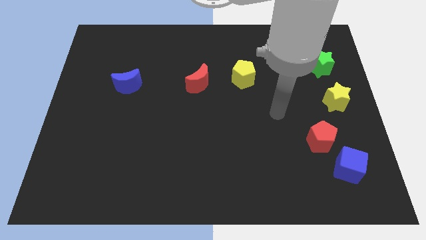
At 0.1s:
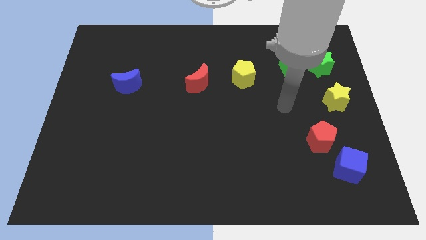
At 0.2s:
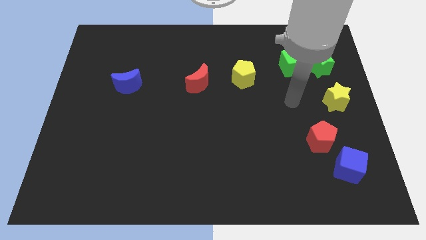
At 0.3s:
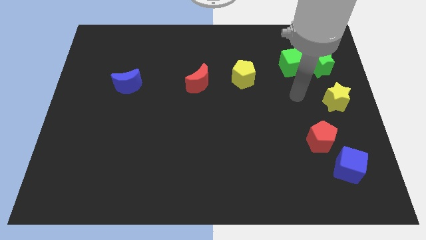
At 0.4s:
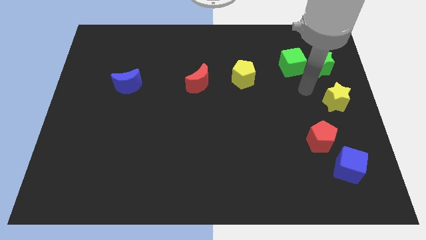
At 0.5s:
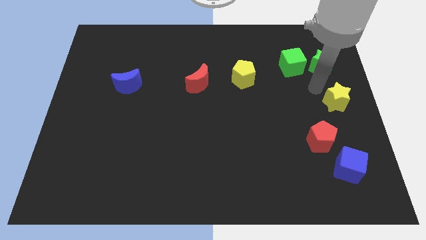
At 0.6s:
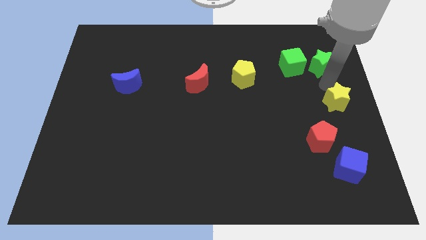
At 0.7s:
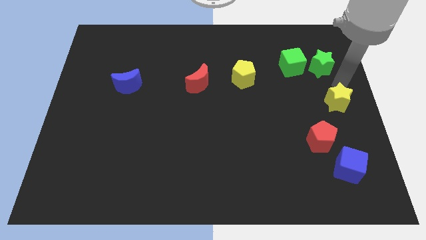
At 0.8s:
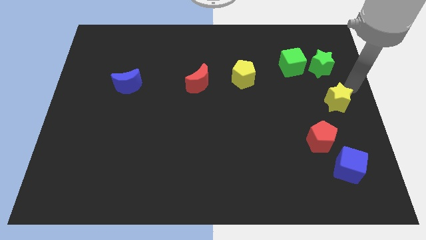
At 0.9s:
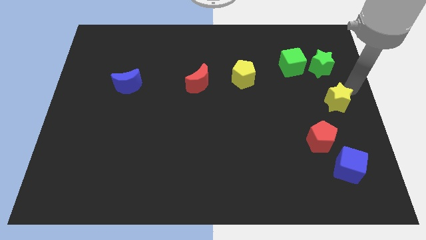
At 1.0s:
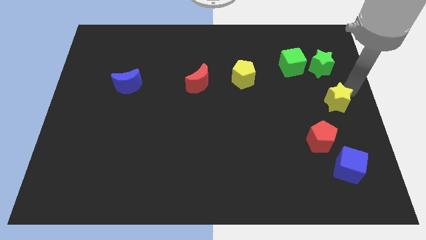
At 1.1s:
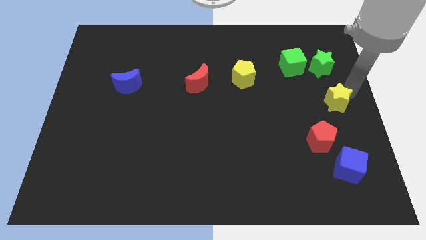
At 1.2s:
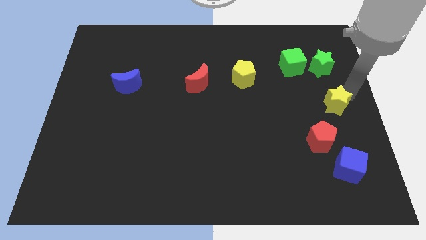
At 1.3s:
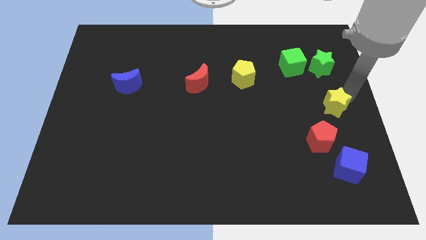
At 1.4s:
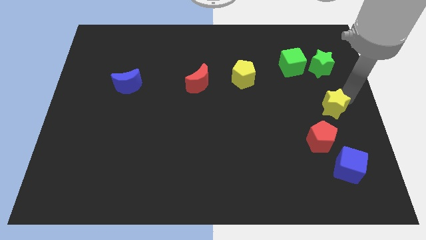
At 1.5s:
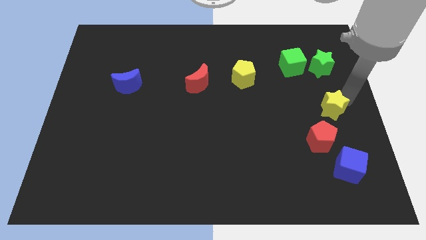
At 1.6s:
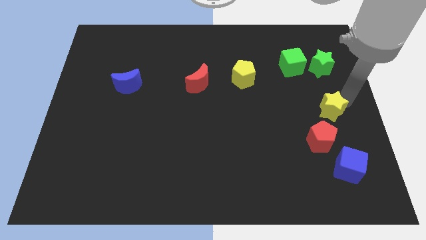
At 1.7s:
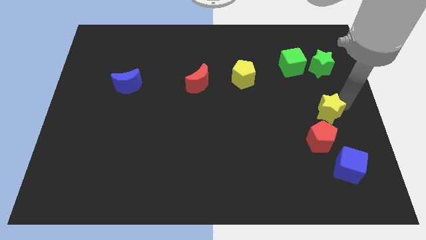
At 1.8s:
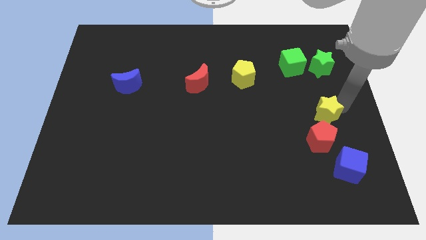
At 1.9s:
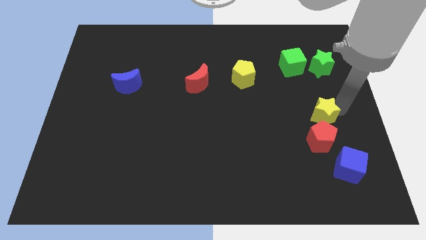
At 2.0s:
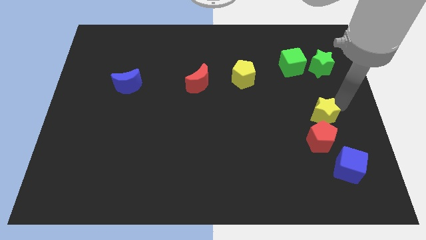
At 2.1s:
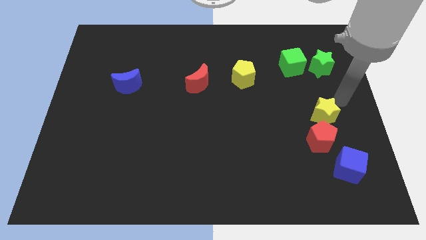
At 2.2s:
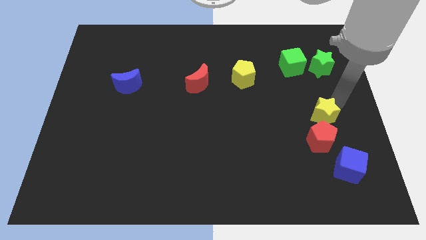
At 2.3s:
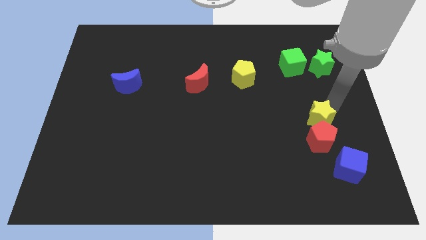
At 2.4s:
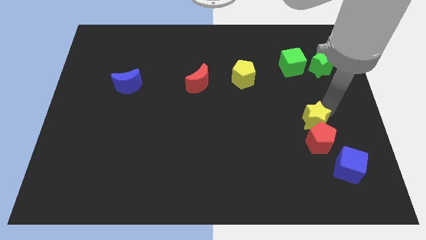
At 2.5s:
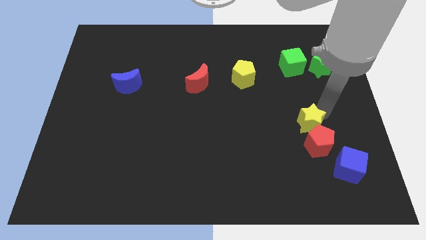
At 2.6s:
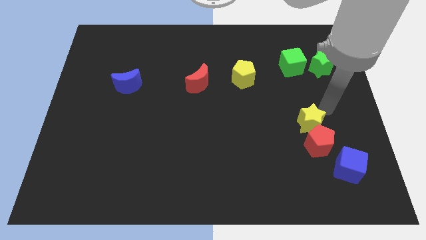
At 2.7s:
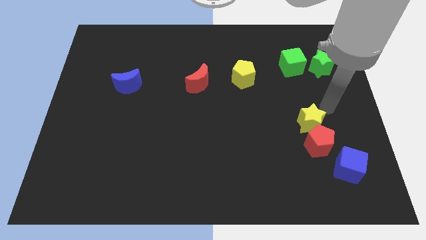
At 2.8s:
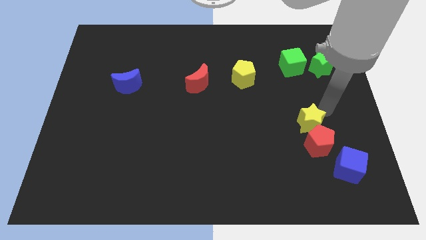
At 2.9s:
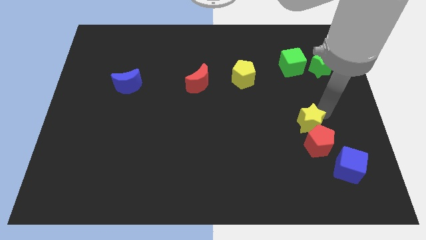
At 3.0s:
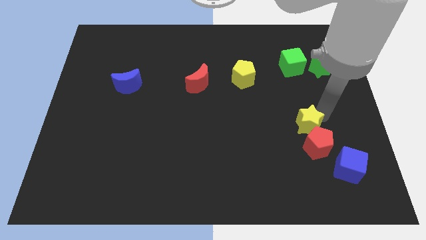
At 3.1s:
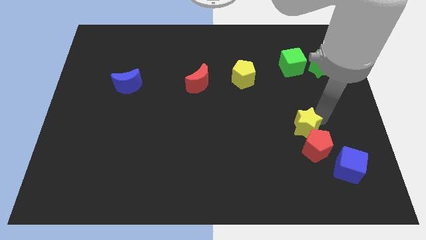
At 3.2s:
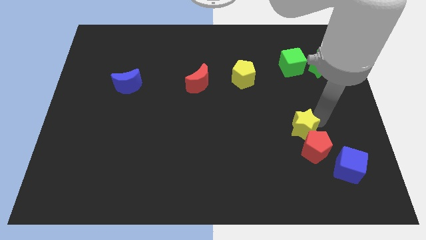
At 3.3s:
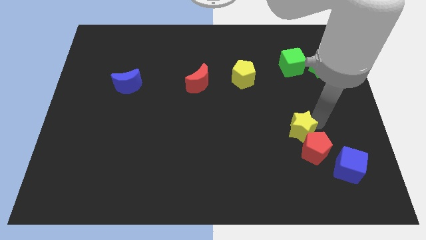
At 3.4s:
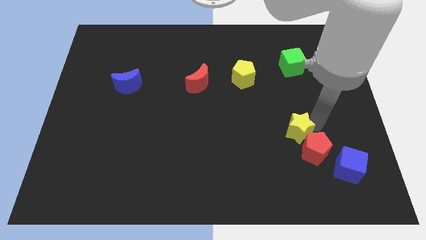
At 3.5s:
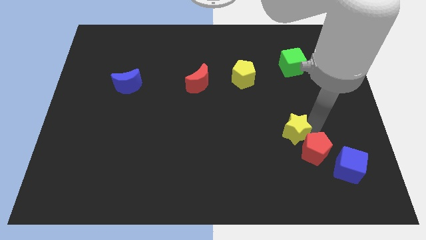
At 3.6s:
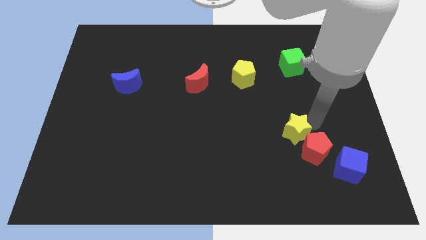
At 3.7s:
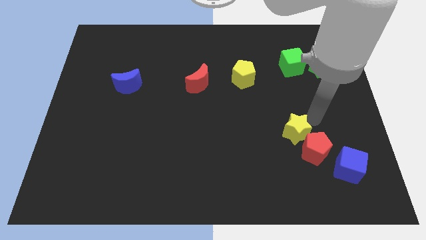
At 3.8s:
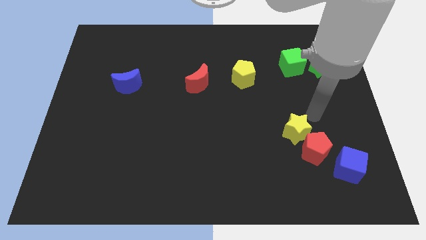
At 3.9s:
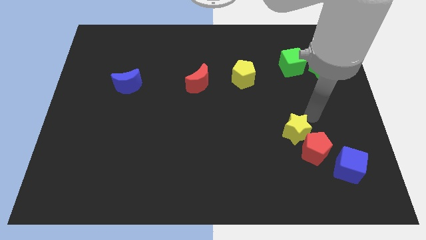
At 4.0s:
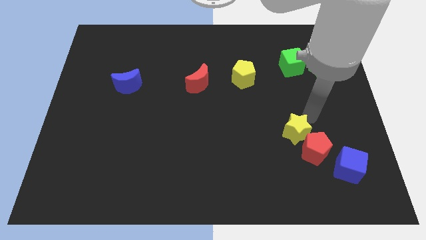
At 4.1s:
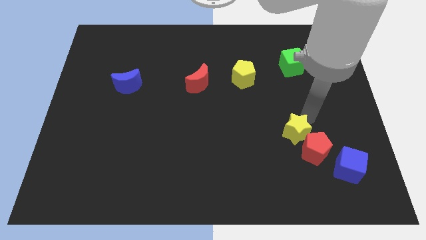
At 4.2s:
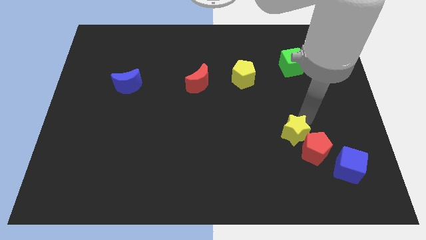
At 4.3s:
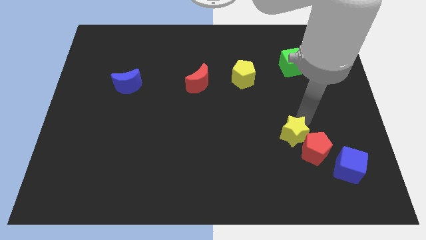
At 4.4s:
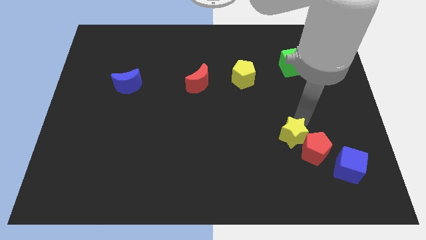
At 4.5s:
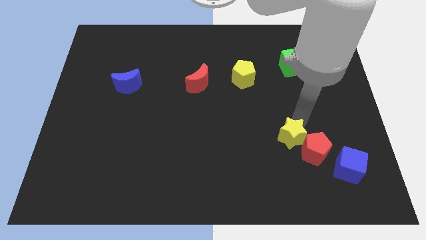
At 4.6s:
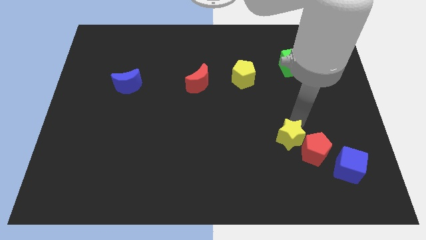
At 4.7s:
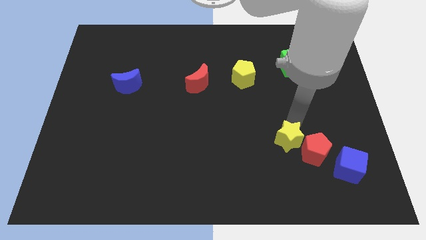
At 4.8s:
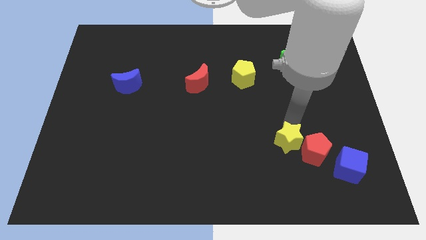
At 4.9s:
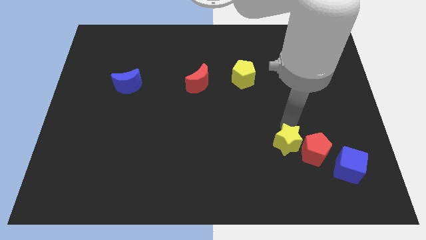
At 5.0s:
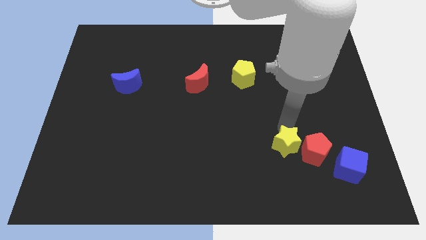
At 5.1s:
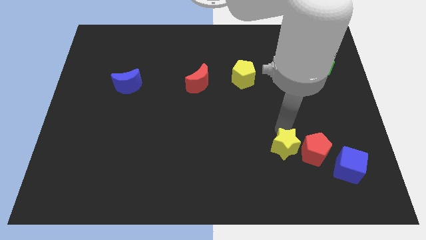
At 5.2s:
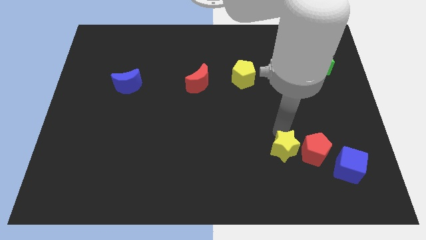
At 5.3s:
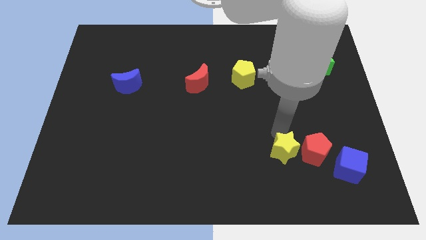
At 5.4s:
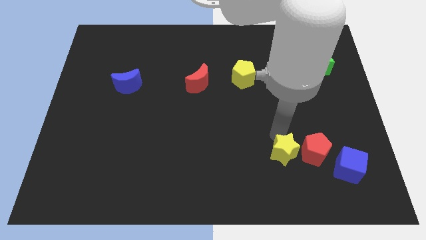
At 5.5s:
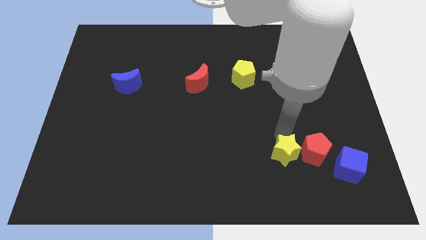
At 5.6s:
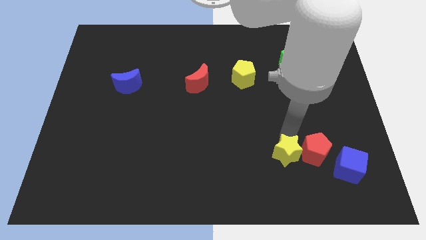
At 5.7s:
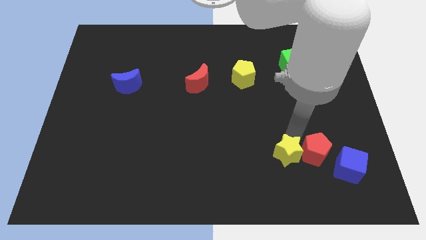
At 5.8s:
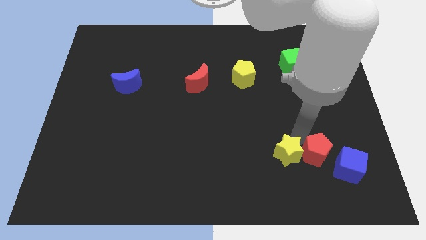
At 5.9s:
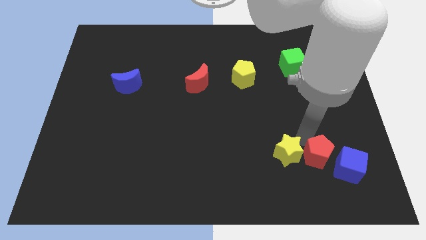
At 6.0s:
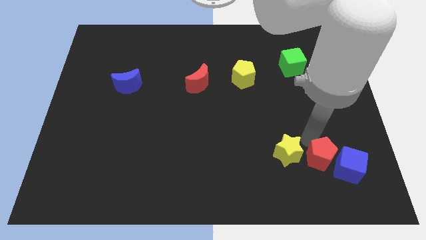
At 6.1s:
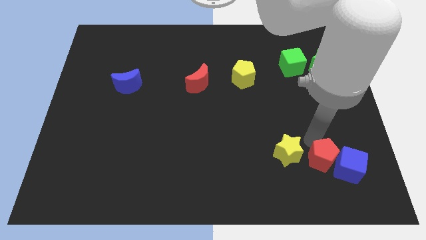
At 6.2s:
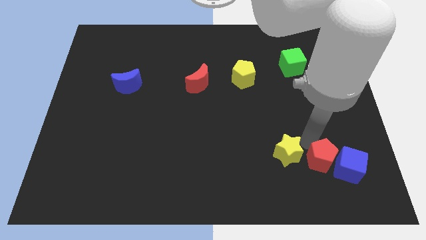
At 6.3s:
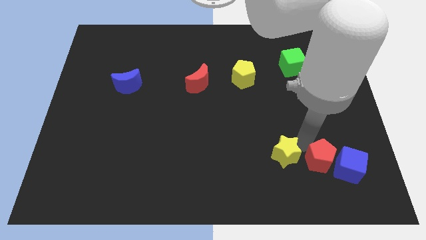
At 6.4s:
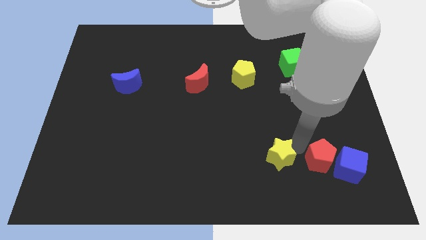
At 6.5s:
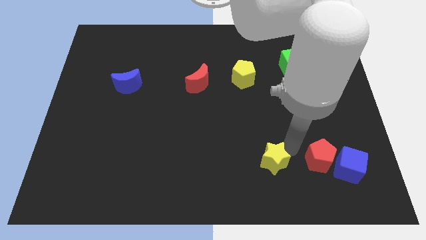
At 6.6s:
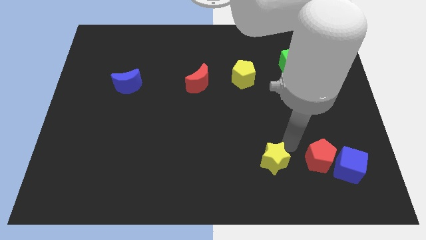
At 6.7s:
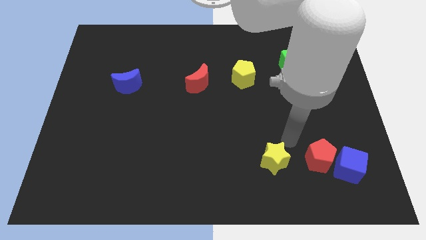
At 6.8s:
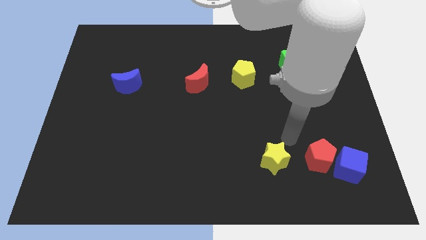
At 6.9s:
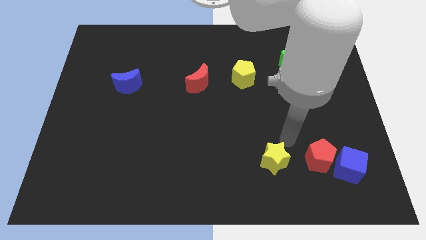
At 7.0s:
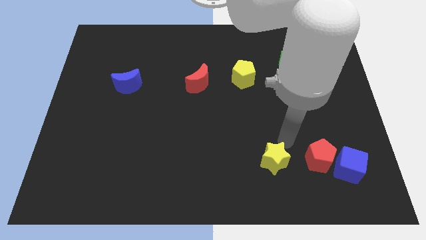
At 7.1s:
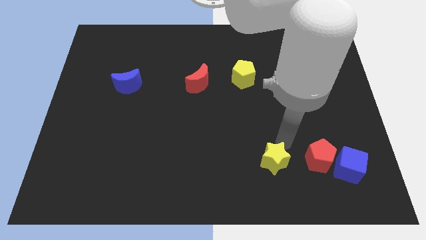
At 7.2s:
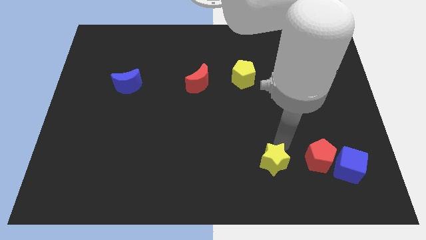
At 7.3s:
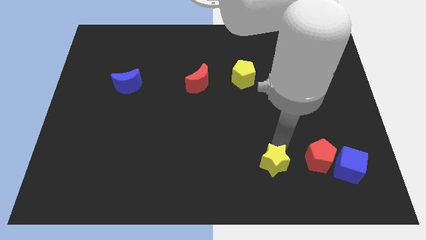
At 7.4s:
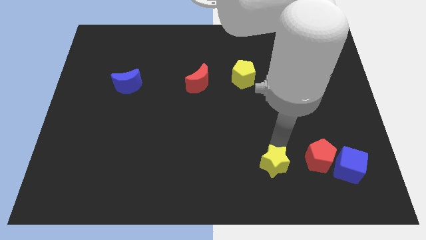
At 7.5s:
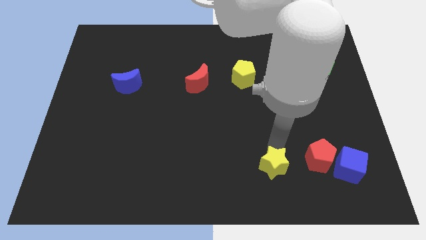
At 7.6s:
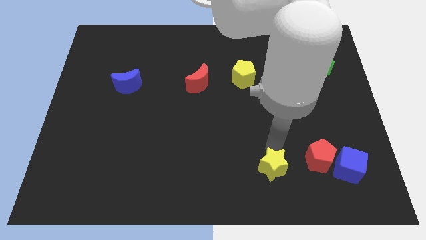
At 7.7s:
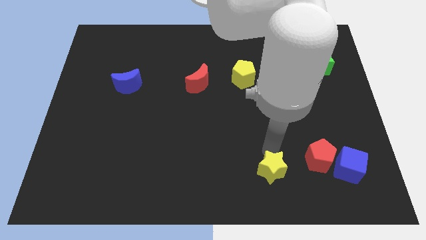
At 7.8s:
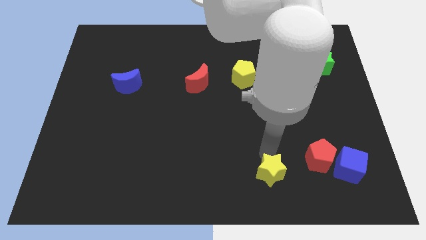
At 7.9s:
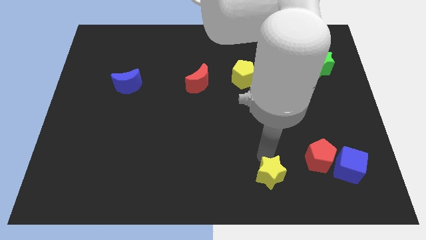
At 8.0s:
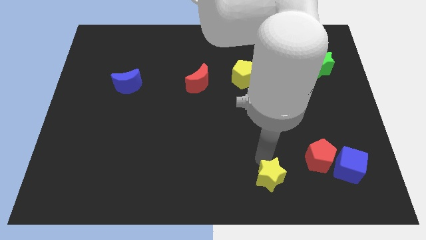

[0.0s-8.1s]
move the yellow star to the bottom
